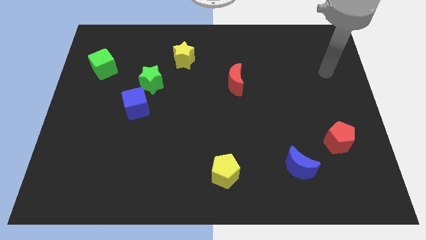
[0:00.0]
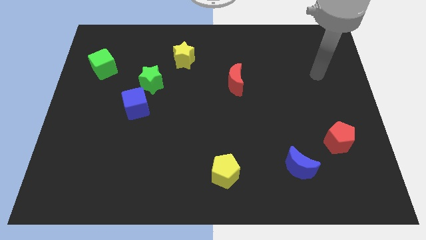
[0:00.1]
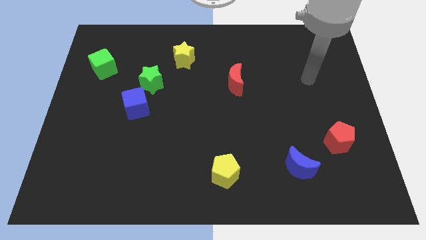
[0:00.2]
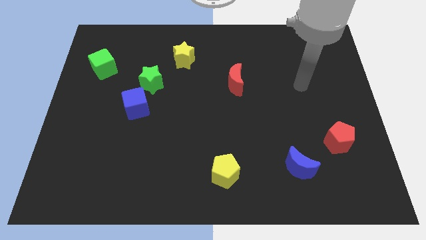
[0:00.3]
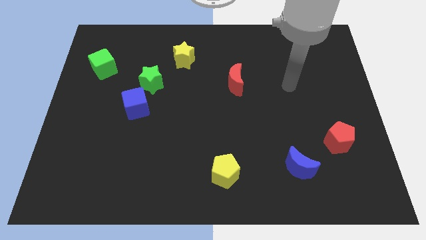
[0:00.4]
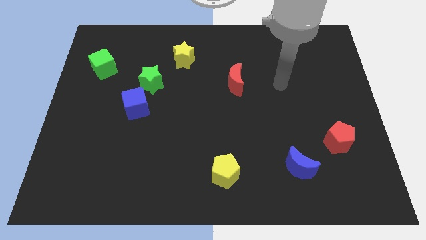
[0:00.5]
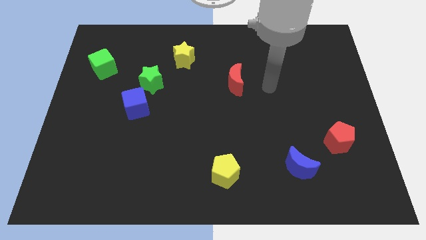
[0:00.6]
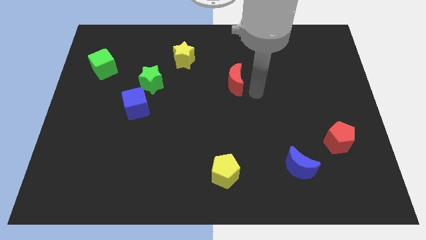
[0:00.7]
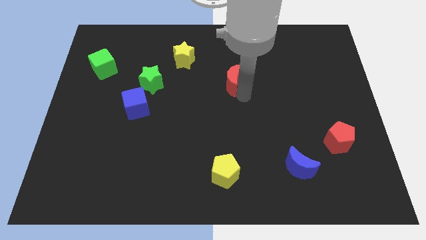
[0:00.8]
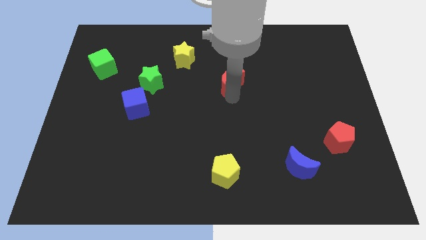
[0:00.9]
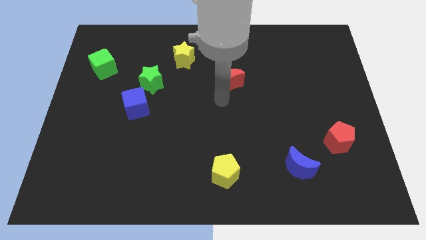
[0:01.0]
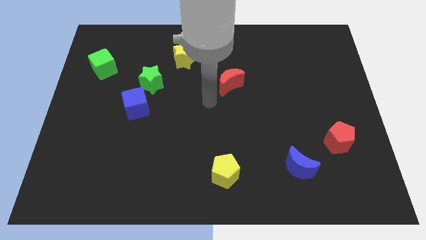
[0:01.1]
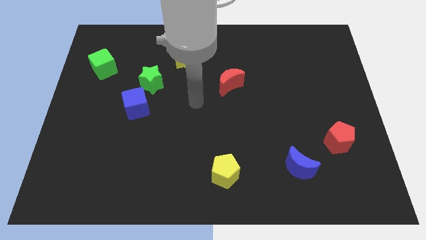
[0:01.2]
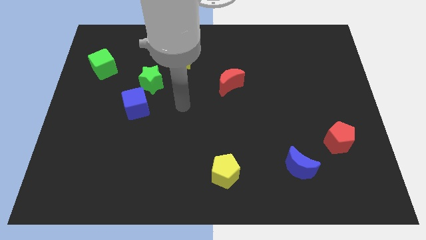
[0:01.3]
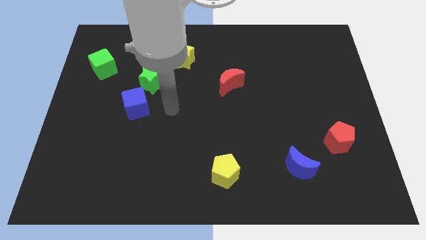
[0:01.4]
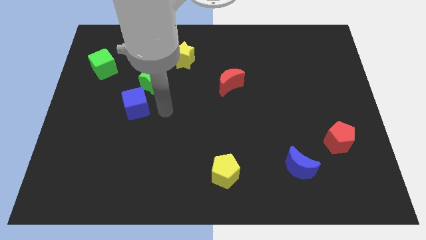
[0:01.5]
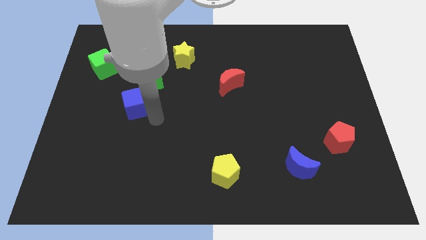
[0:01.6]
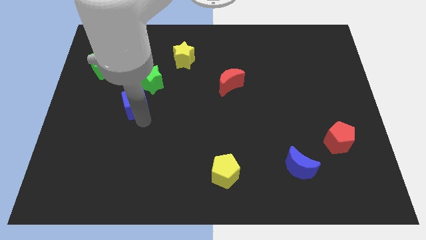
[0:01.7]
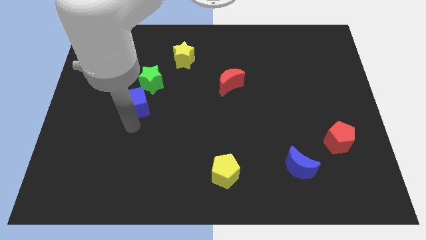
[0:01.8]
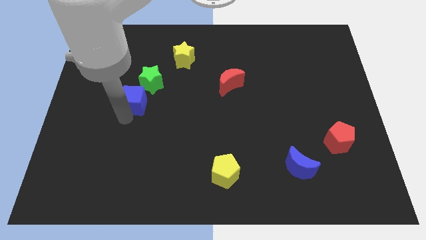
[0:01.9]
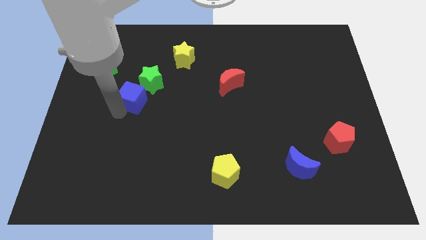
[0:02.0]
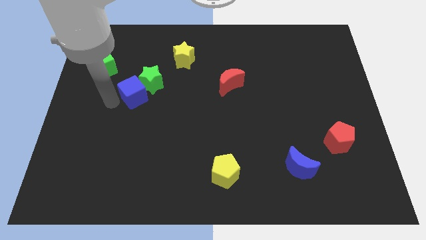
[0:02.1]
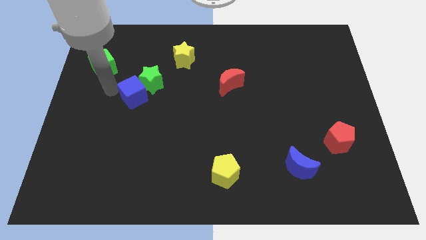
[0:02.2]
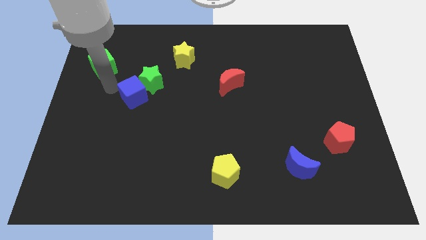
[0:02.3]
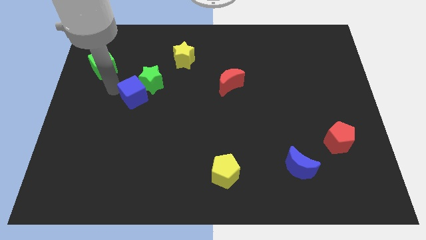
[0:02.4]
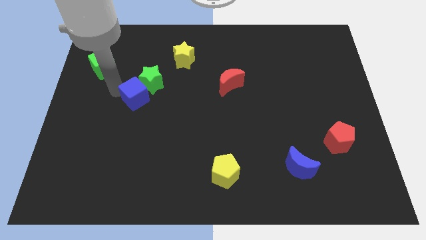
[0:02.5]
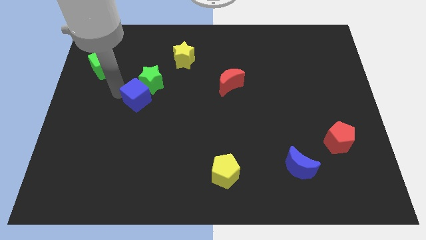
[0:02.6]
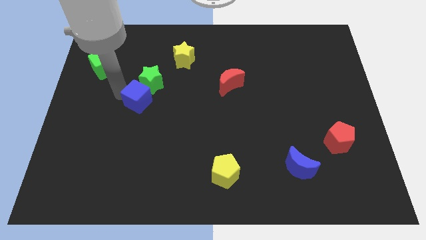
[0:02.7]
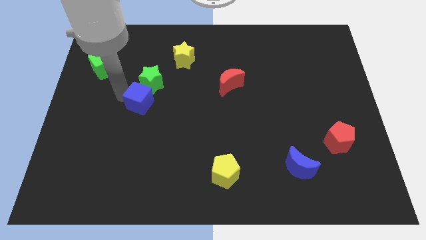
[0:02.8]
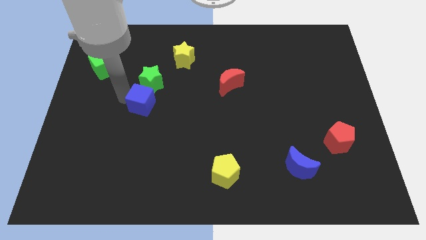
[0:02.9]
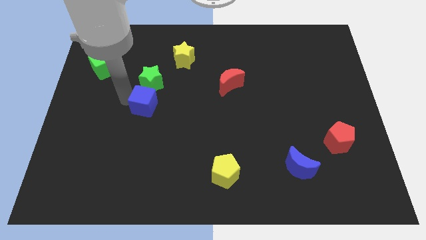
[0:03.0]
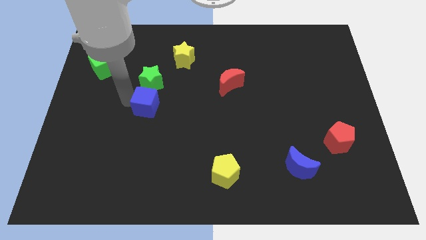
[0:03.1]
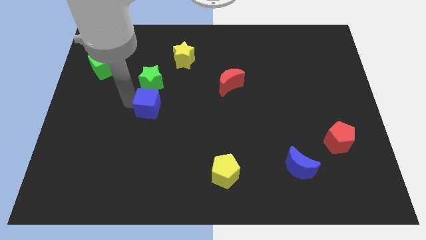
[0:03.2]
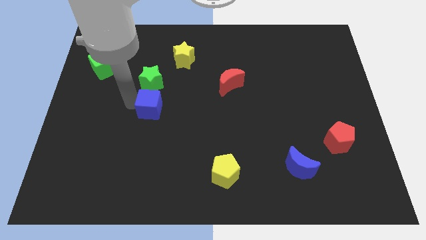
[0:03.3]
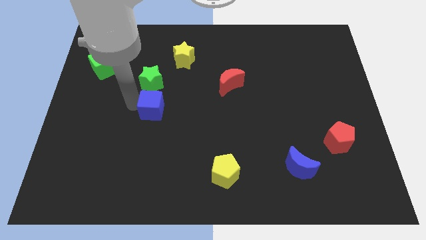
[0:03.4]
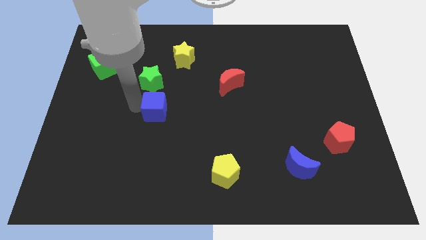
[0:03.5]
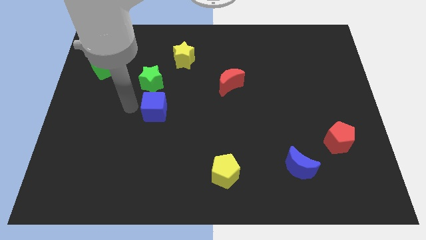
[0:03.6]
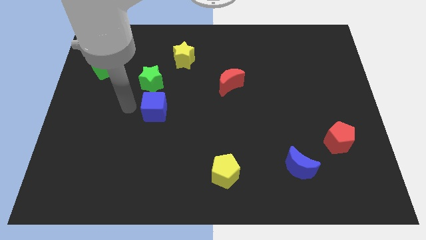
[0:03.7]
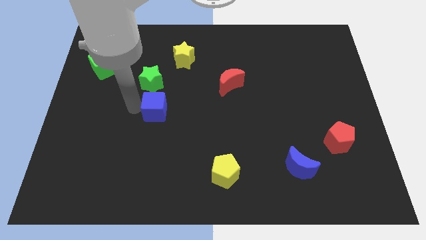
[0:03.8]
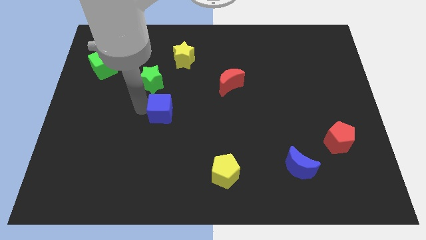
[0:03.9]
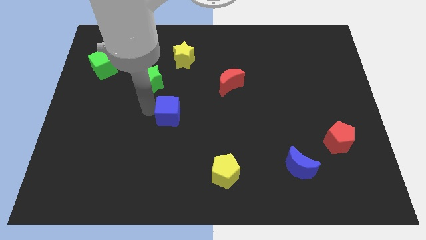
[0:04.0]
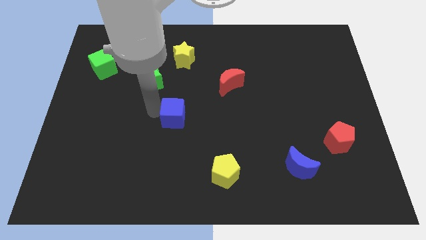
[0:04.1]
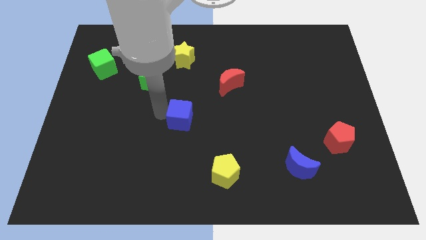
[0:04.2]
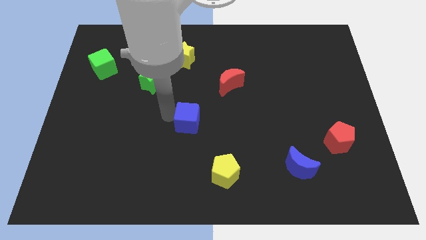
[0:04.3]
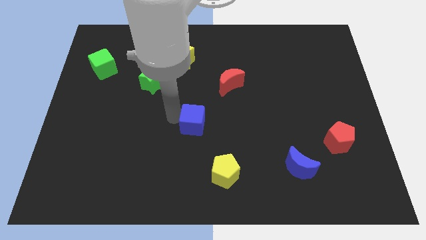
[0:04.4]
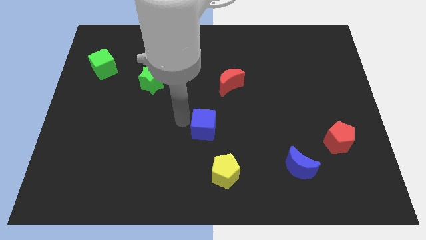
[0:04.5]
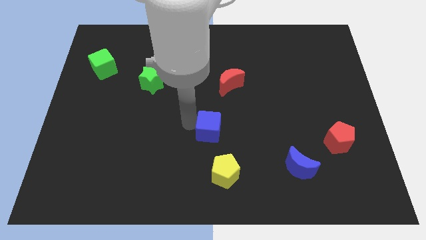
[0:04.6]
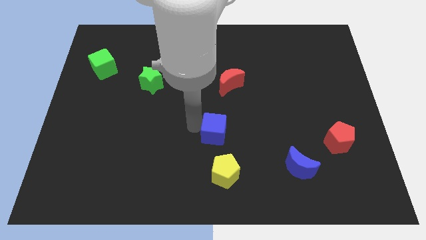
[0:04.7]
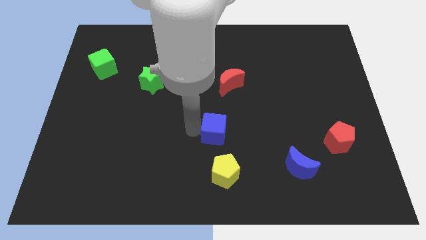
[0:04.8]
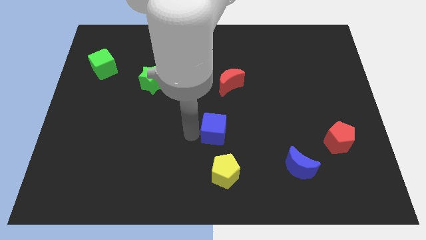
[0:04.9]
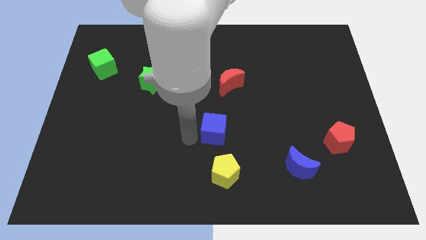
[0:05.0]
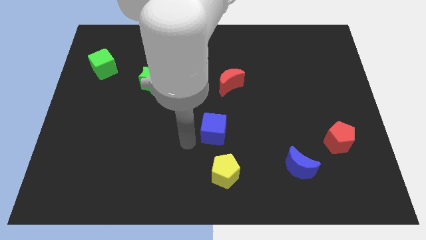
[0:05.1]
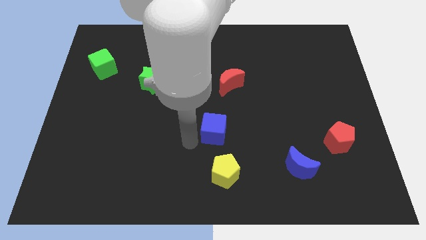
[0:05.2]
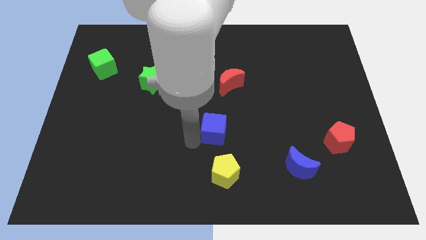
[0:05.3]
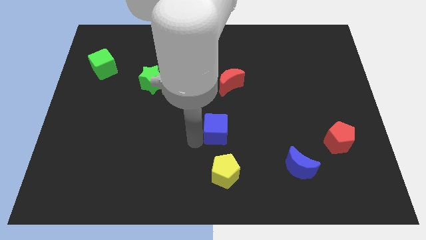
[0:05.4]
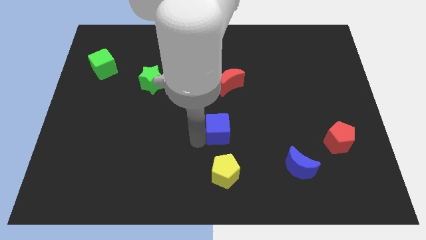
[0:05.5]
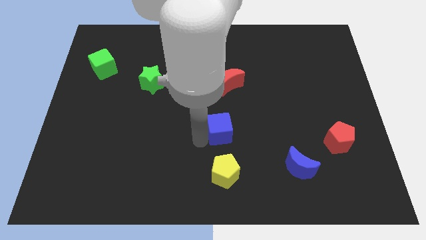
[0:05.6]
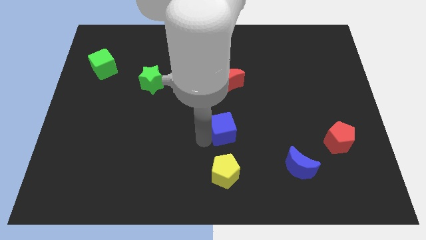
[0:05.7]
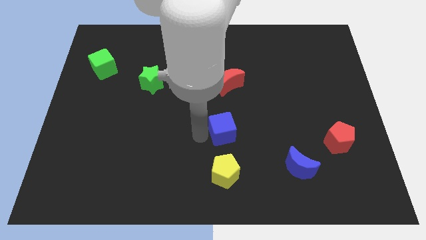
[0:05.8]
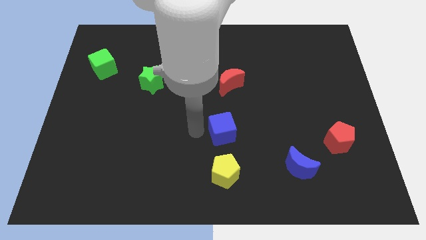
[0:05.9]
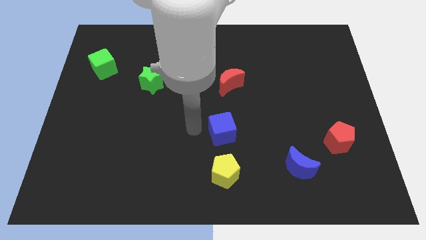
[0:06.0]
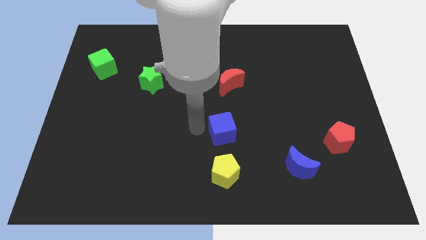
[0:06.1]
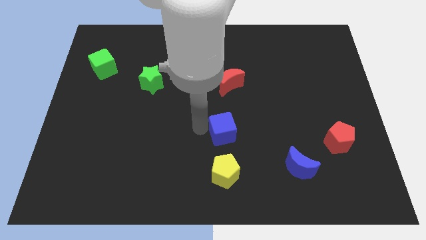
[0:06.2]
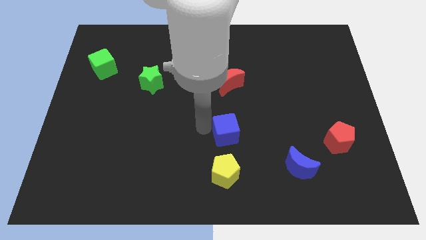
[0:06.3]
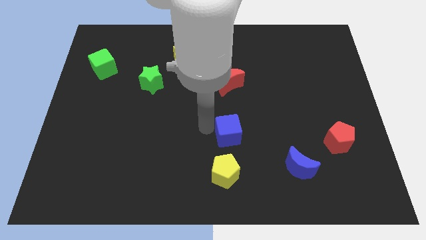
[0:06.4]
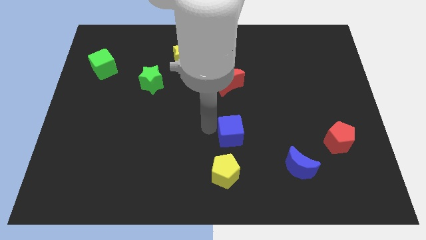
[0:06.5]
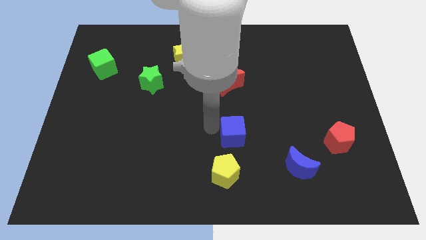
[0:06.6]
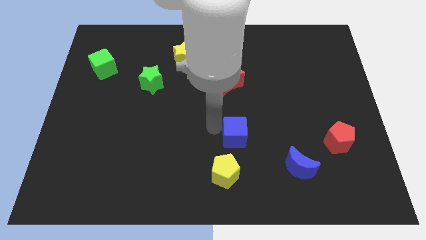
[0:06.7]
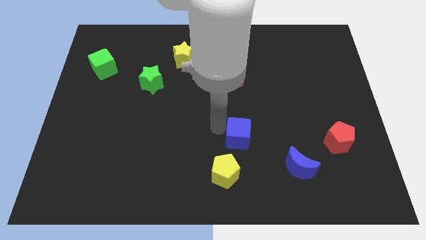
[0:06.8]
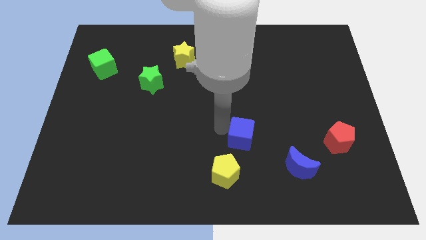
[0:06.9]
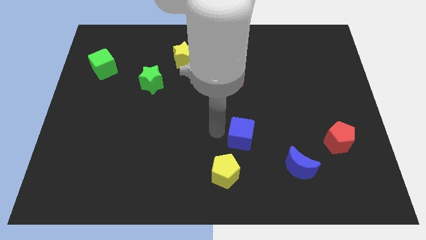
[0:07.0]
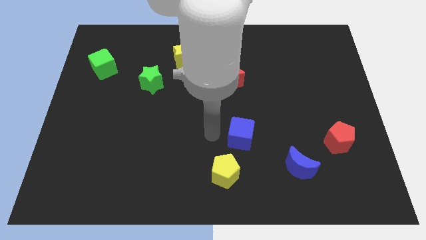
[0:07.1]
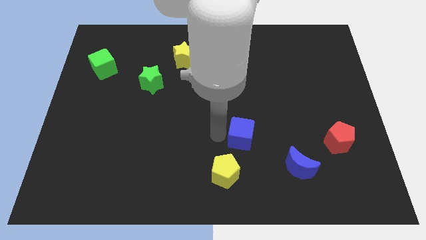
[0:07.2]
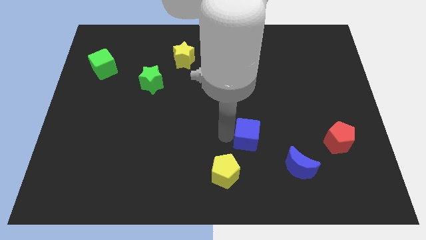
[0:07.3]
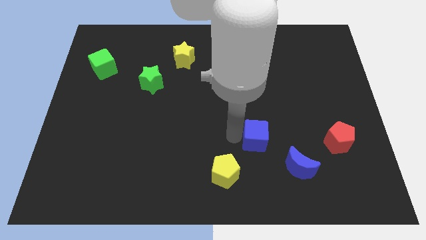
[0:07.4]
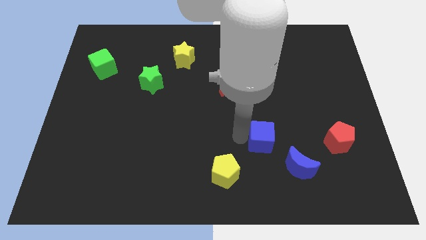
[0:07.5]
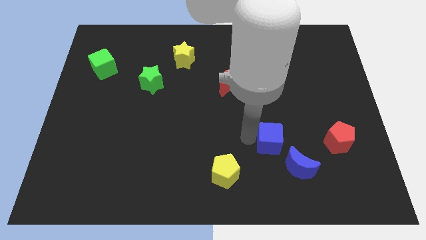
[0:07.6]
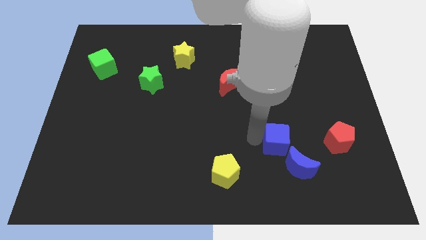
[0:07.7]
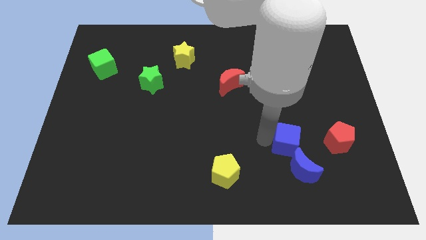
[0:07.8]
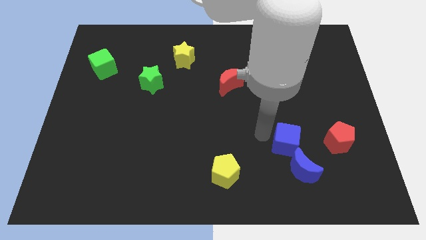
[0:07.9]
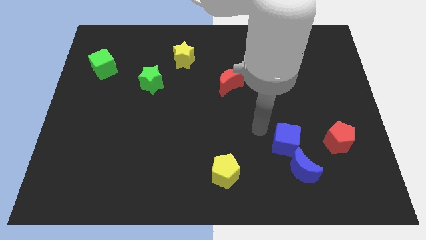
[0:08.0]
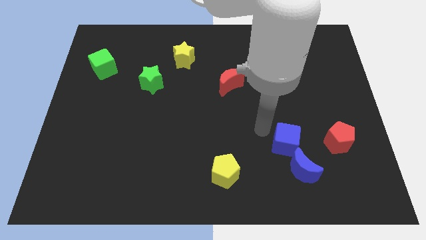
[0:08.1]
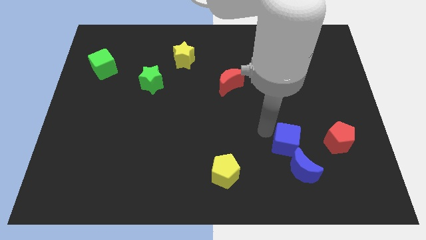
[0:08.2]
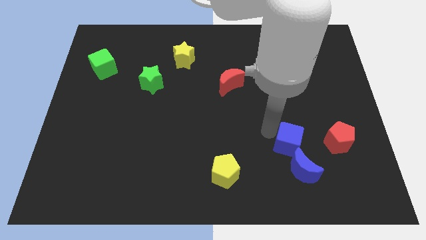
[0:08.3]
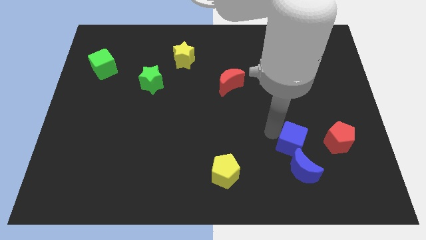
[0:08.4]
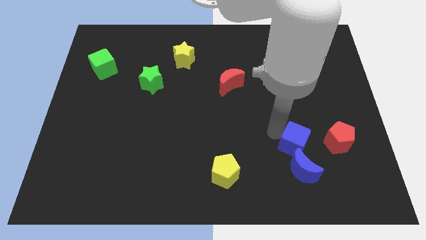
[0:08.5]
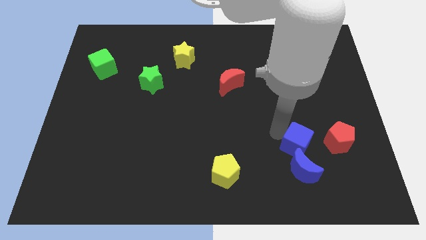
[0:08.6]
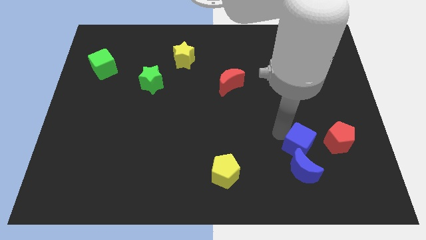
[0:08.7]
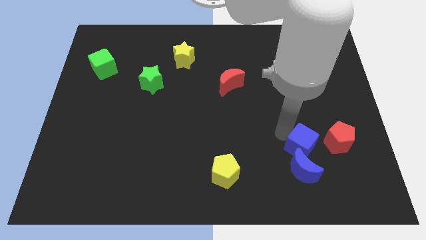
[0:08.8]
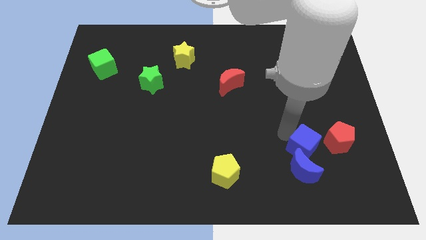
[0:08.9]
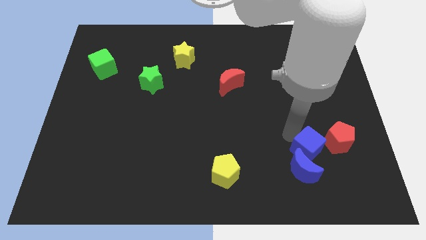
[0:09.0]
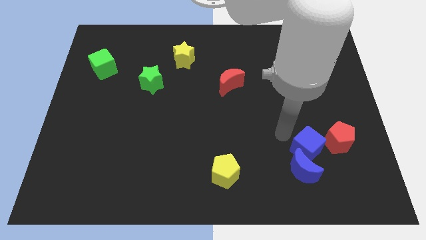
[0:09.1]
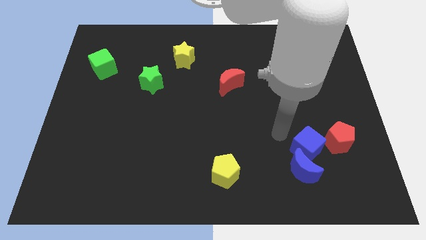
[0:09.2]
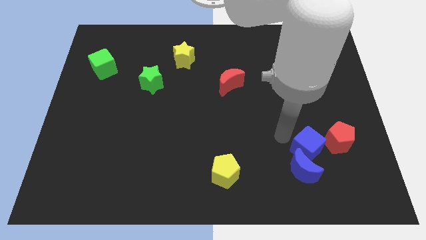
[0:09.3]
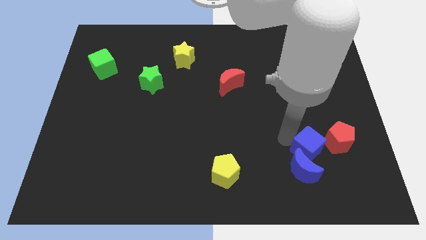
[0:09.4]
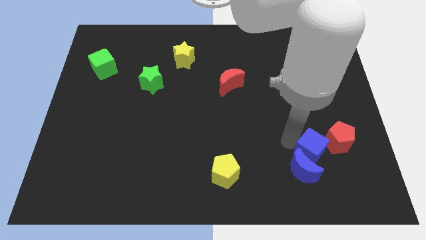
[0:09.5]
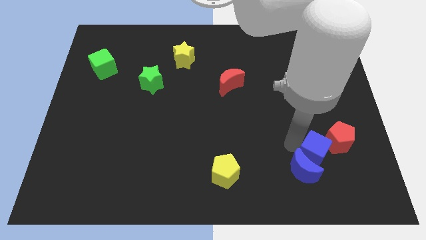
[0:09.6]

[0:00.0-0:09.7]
push the blue cube just right of the blue moon
